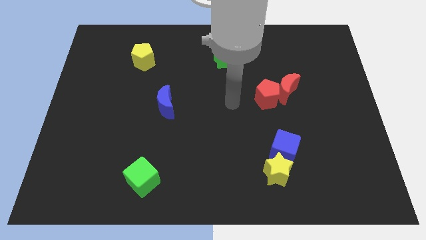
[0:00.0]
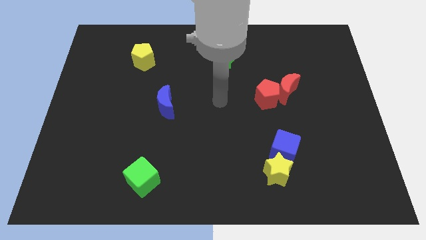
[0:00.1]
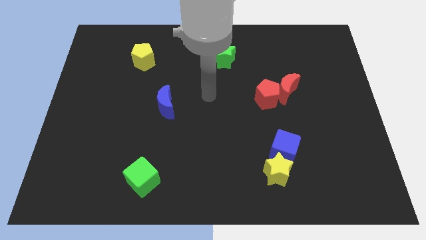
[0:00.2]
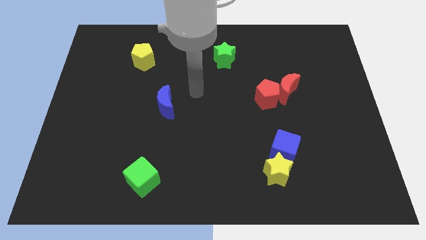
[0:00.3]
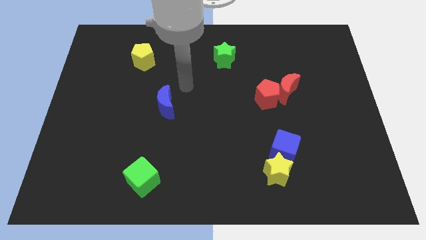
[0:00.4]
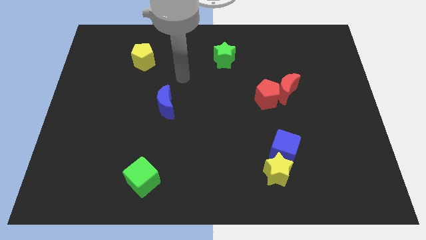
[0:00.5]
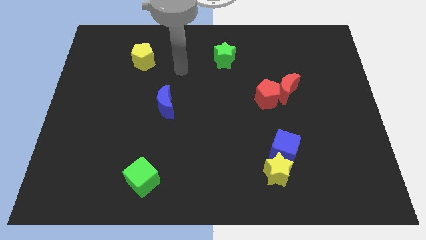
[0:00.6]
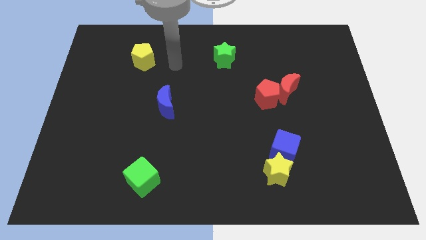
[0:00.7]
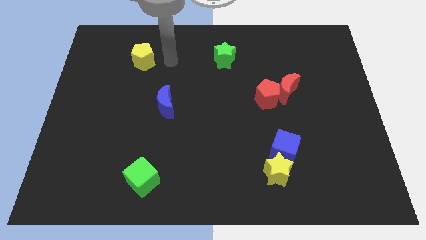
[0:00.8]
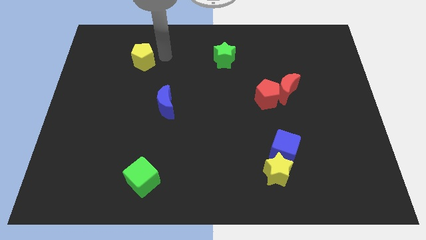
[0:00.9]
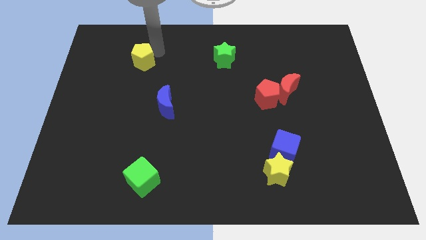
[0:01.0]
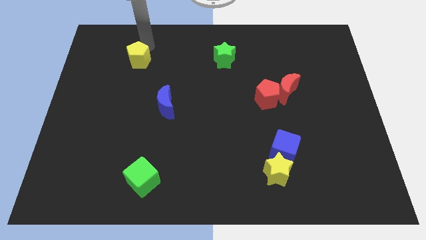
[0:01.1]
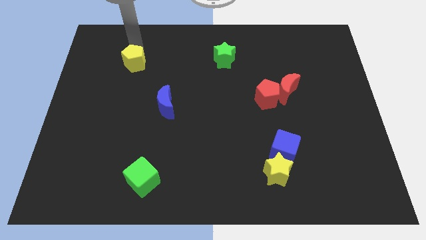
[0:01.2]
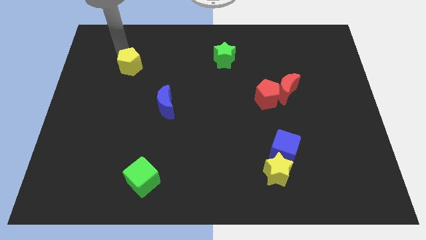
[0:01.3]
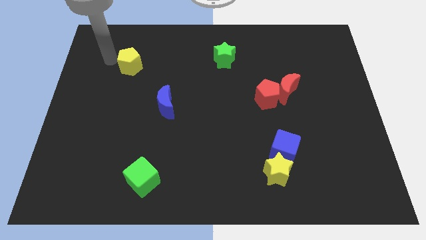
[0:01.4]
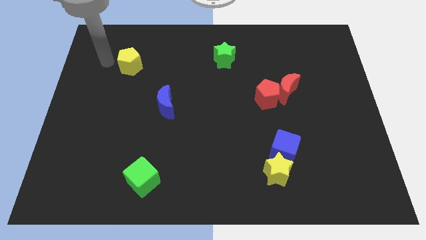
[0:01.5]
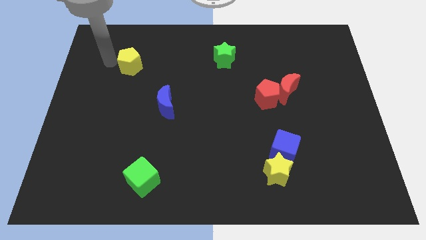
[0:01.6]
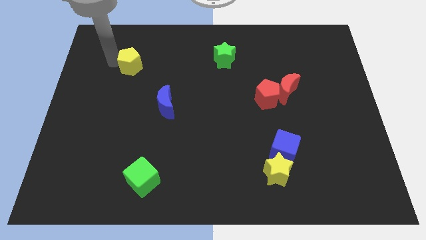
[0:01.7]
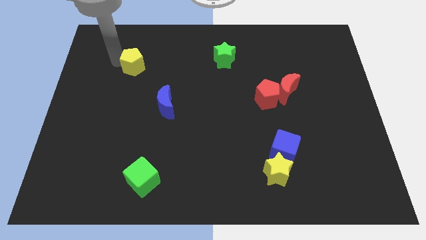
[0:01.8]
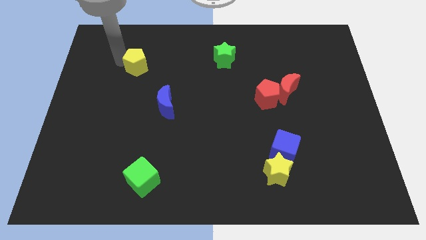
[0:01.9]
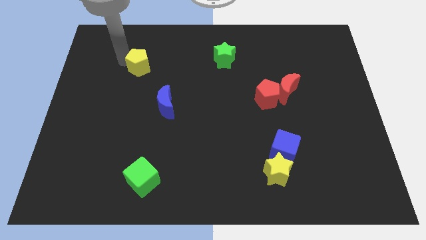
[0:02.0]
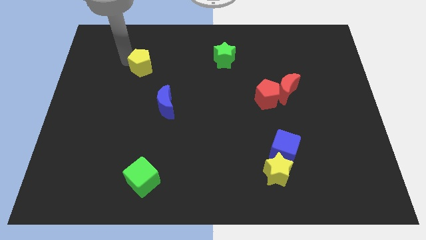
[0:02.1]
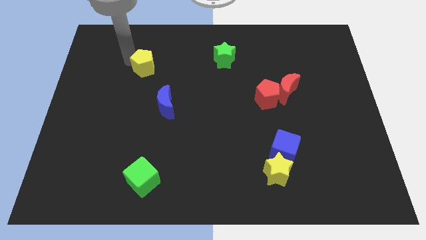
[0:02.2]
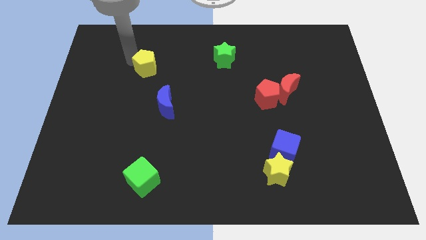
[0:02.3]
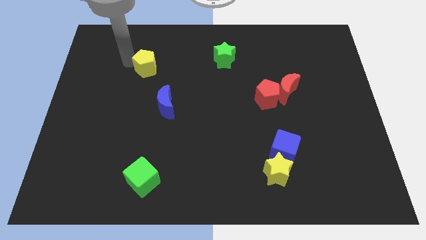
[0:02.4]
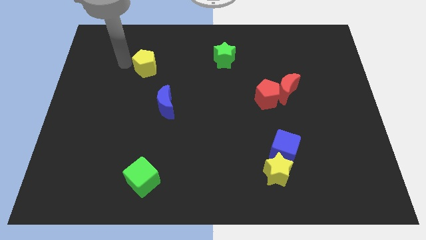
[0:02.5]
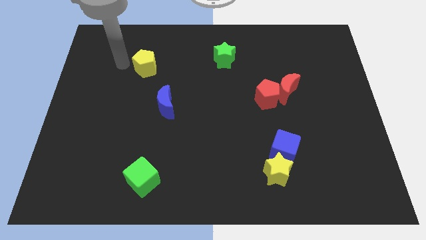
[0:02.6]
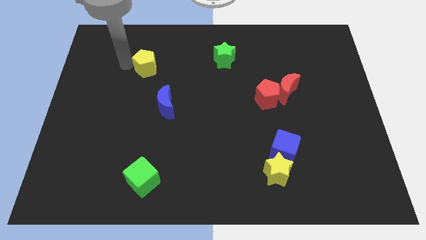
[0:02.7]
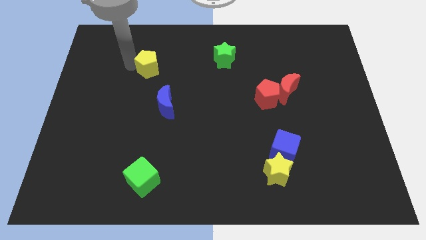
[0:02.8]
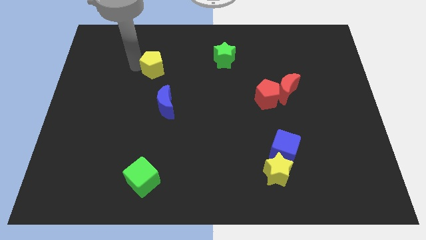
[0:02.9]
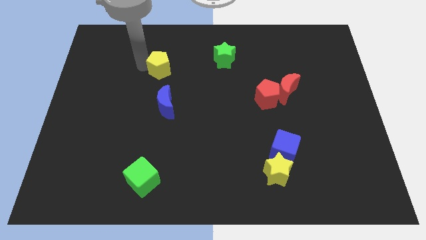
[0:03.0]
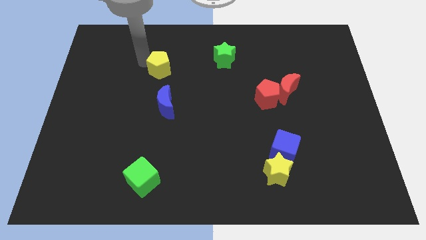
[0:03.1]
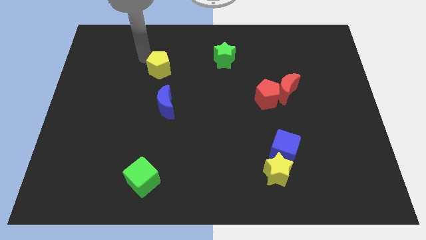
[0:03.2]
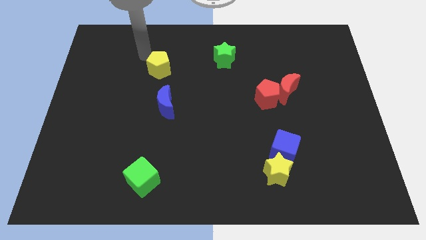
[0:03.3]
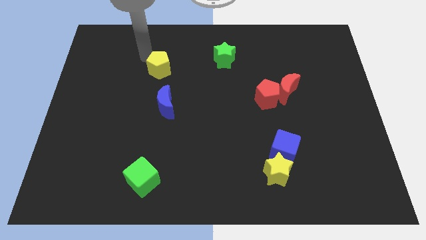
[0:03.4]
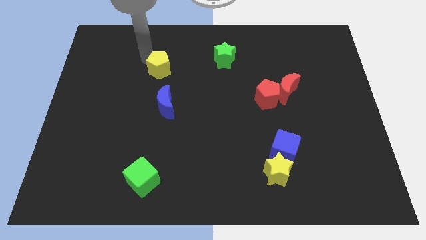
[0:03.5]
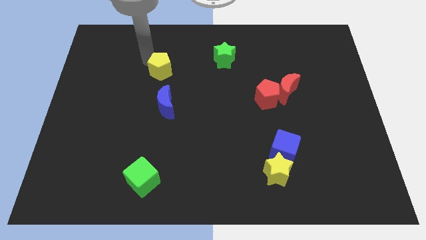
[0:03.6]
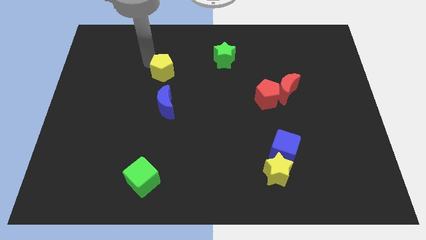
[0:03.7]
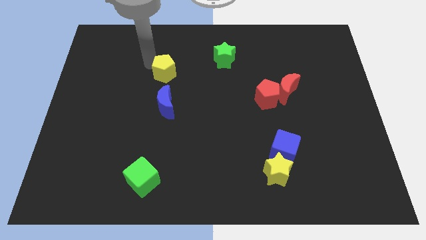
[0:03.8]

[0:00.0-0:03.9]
push the yellow pentagon a little bit down and to the right diagonally

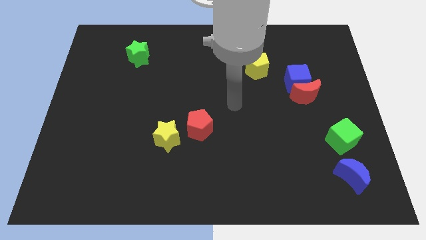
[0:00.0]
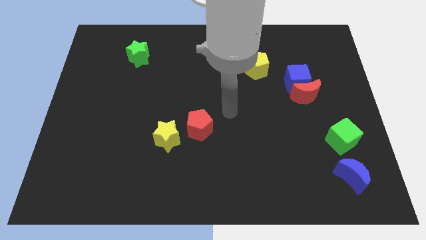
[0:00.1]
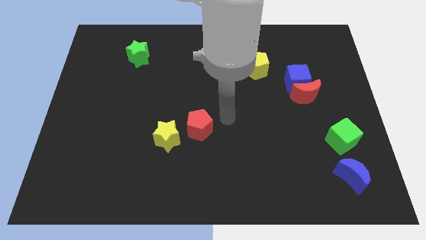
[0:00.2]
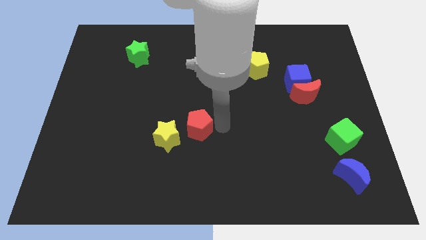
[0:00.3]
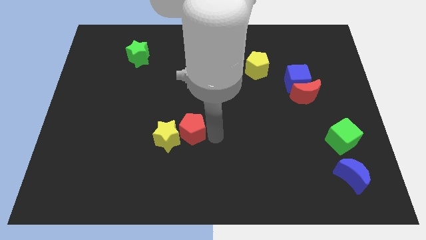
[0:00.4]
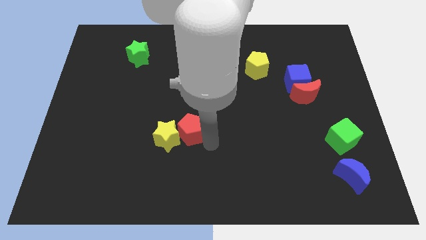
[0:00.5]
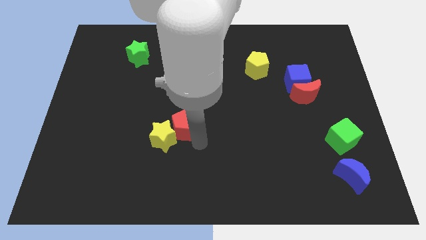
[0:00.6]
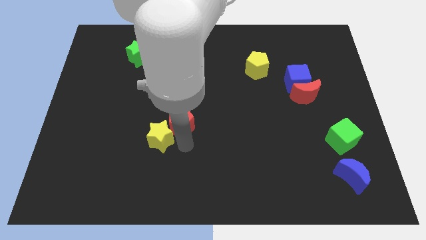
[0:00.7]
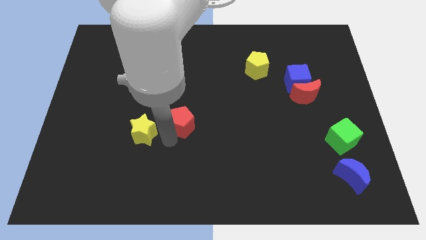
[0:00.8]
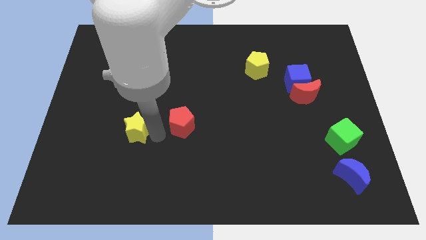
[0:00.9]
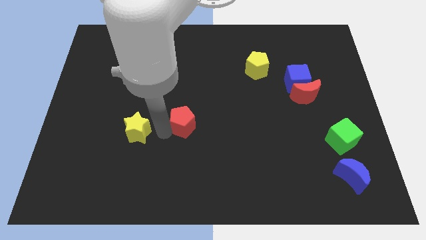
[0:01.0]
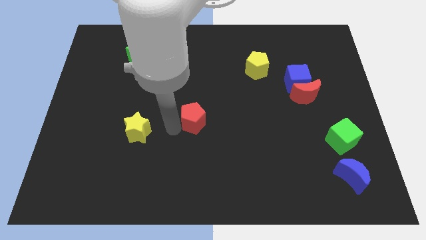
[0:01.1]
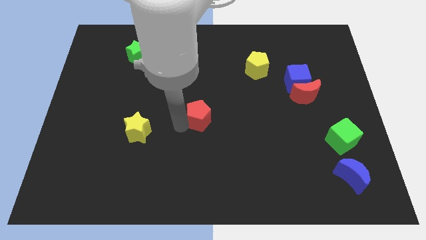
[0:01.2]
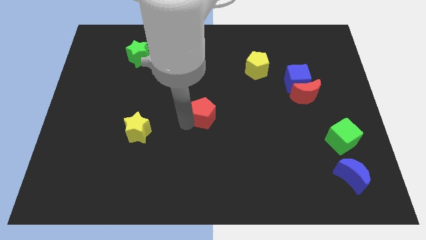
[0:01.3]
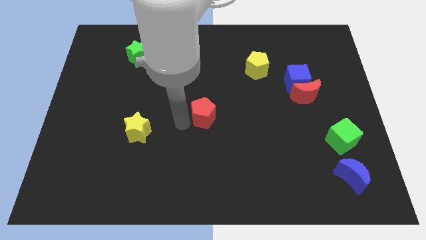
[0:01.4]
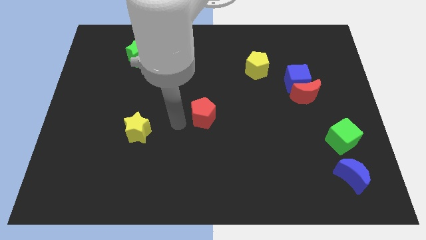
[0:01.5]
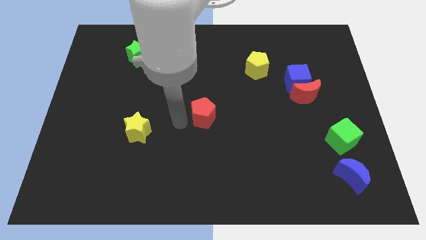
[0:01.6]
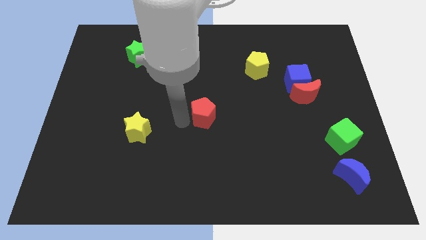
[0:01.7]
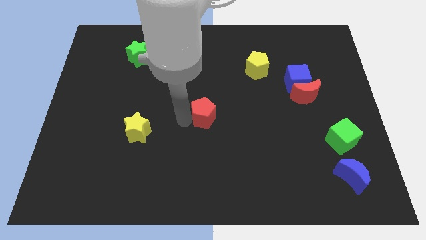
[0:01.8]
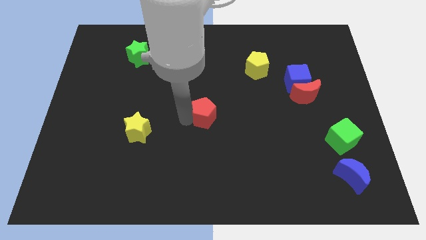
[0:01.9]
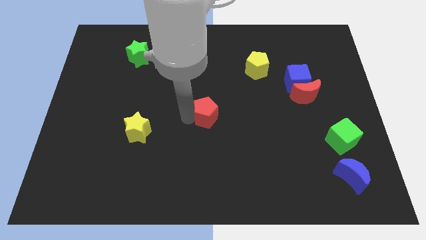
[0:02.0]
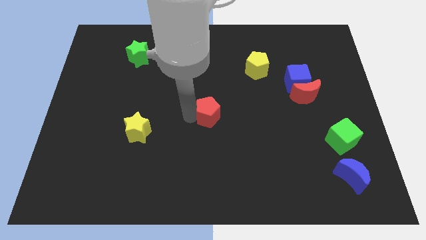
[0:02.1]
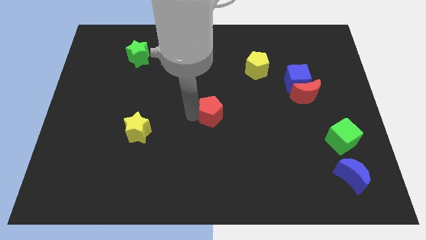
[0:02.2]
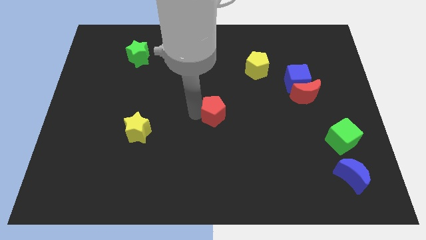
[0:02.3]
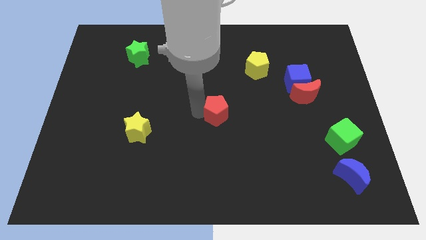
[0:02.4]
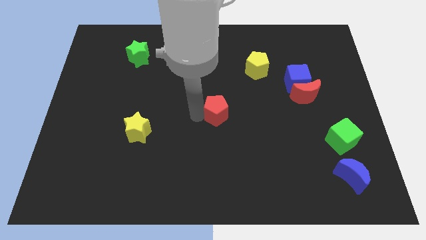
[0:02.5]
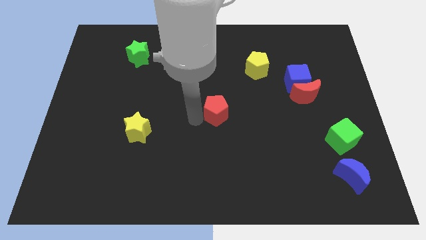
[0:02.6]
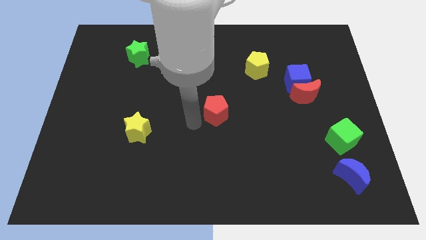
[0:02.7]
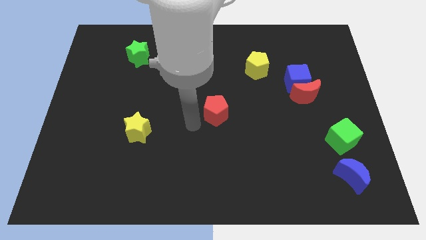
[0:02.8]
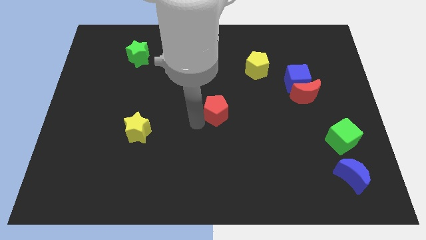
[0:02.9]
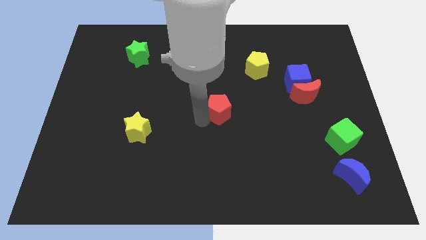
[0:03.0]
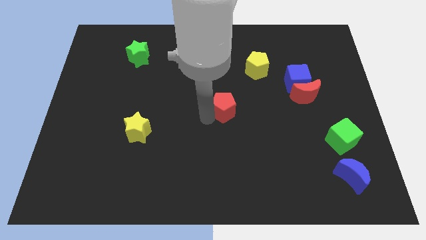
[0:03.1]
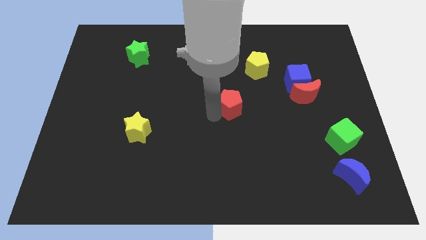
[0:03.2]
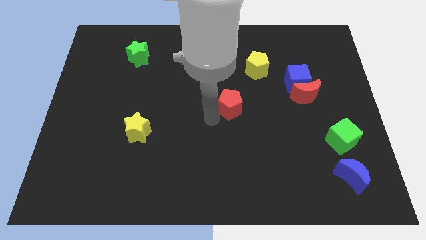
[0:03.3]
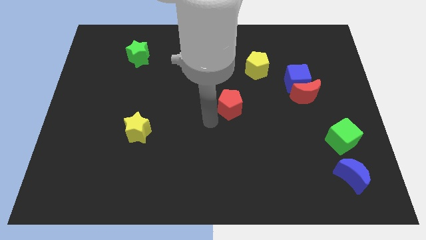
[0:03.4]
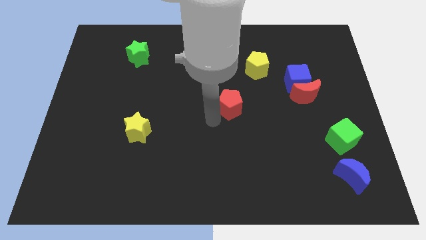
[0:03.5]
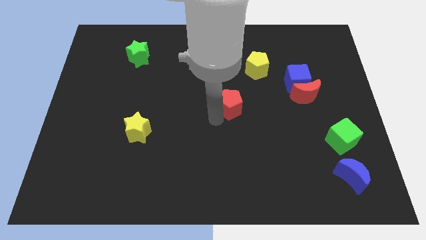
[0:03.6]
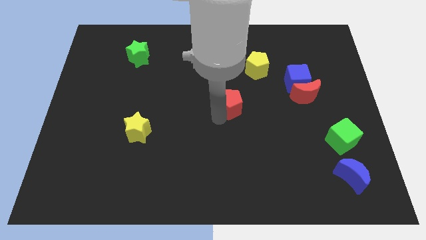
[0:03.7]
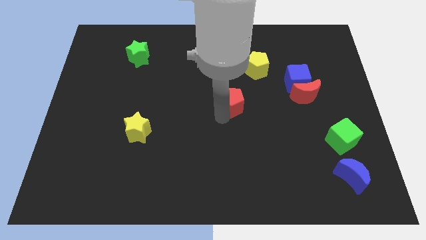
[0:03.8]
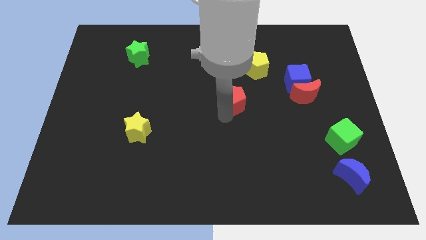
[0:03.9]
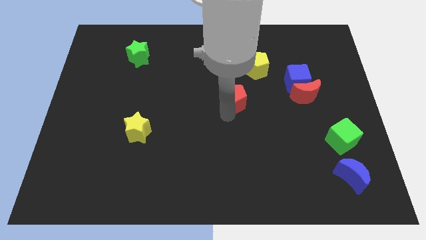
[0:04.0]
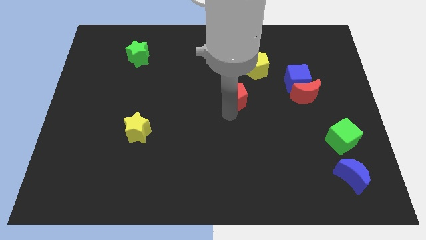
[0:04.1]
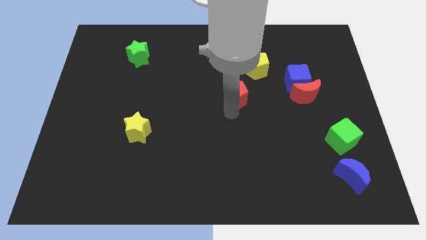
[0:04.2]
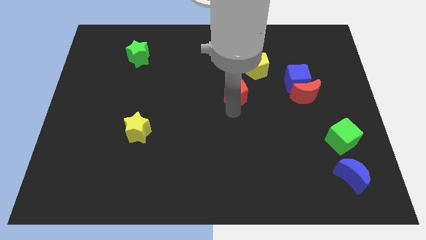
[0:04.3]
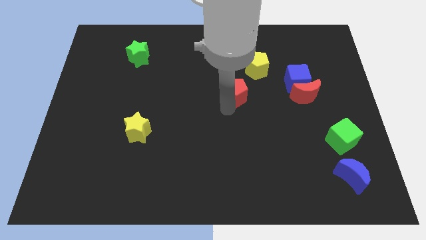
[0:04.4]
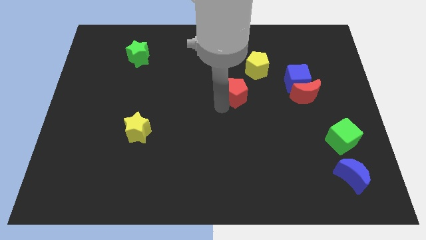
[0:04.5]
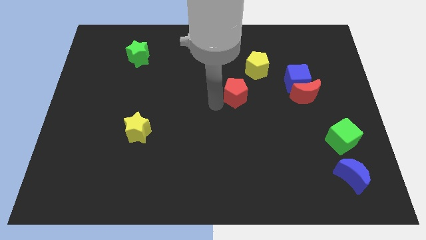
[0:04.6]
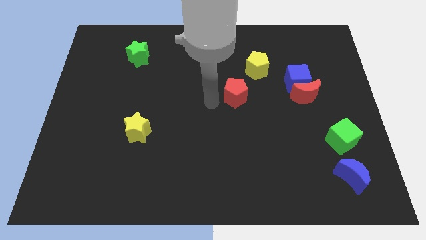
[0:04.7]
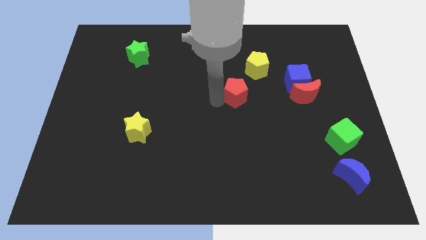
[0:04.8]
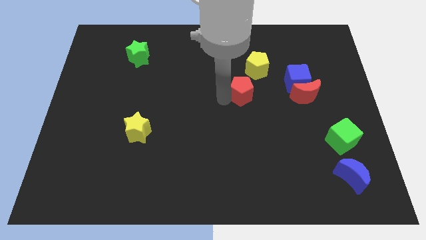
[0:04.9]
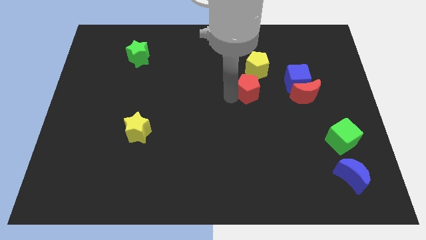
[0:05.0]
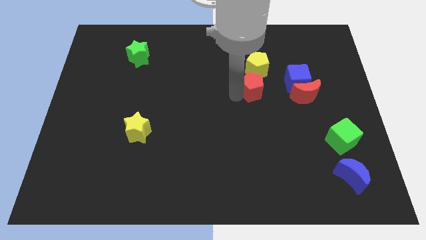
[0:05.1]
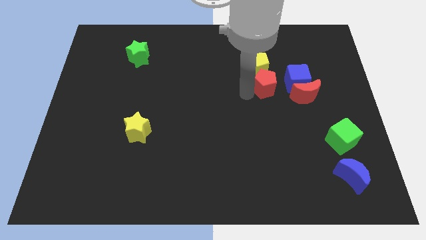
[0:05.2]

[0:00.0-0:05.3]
push the red pentagon up and right diagonally
